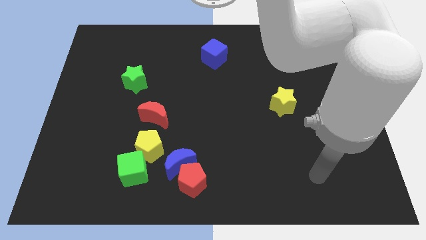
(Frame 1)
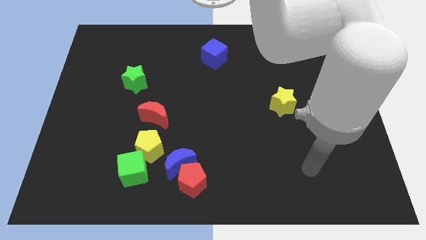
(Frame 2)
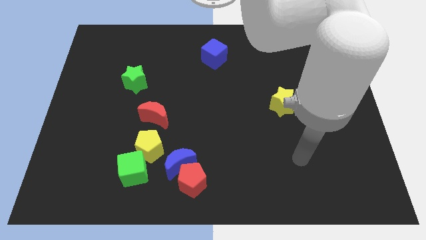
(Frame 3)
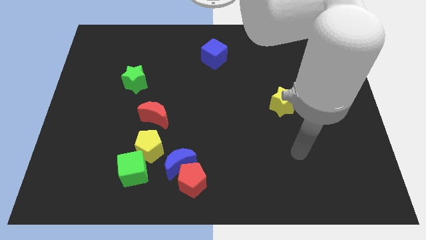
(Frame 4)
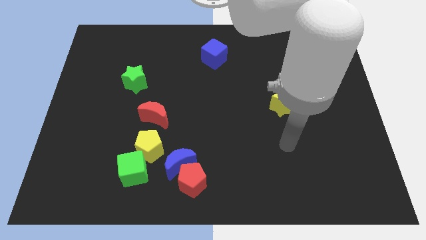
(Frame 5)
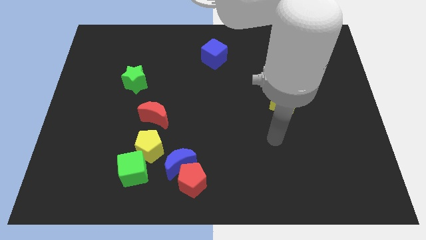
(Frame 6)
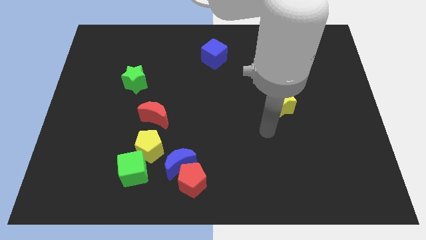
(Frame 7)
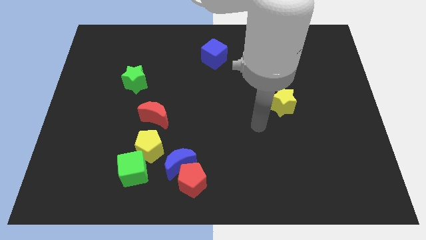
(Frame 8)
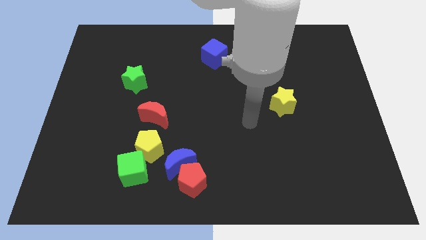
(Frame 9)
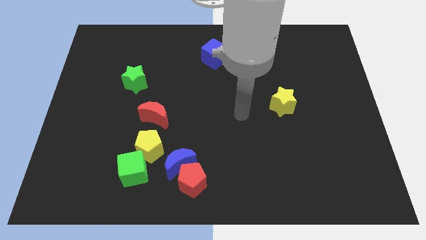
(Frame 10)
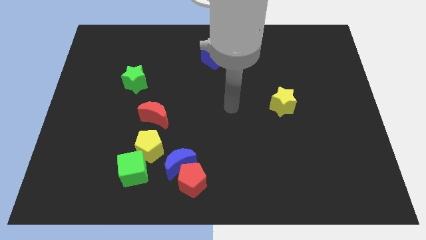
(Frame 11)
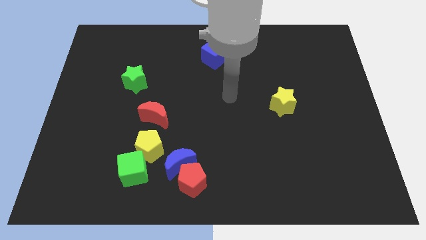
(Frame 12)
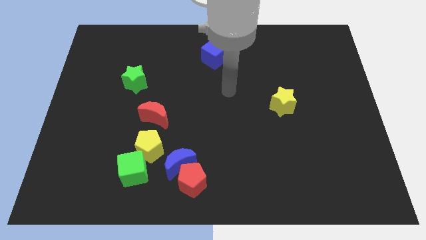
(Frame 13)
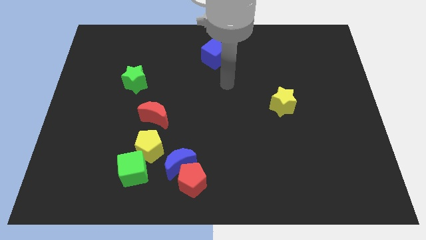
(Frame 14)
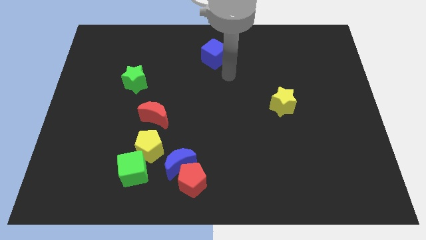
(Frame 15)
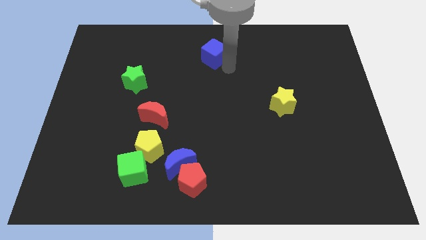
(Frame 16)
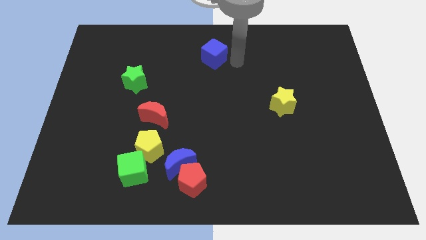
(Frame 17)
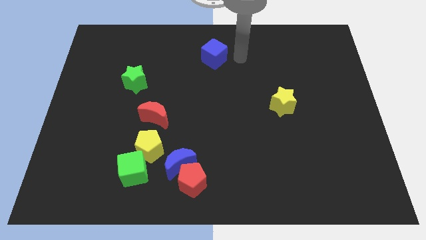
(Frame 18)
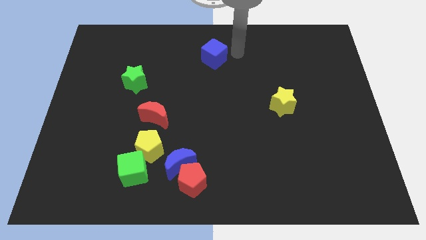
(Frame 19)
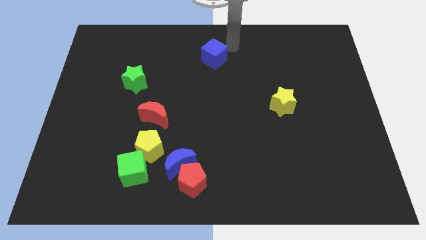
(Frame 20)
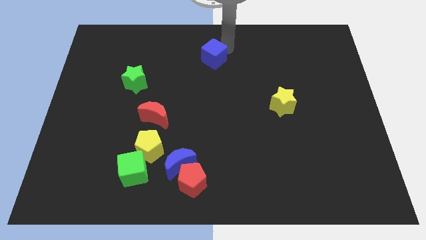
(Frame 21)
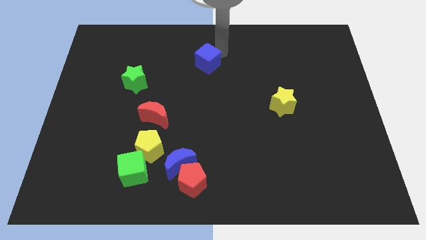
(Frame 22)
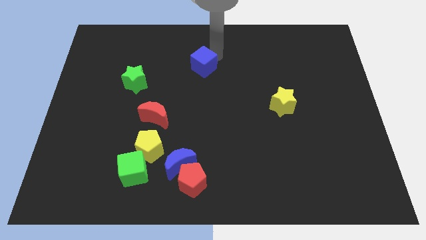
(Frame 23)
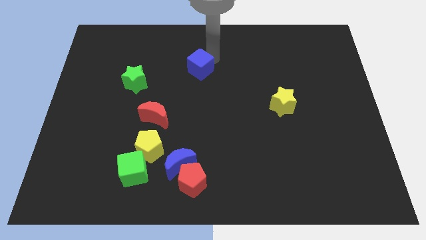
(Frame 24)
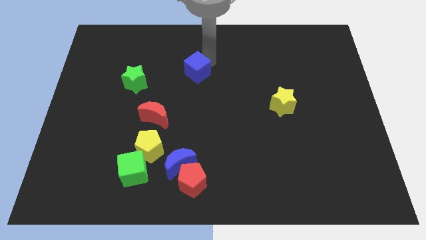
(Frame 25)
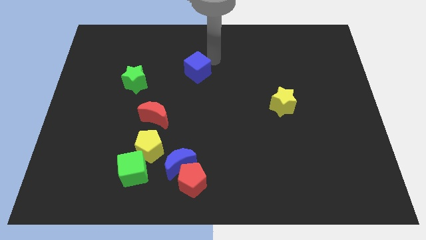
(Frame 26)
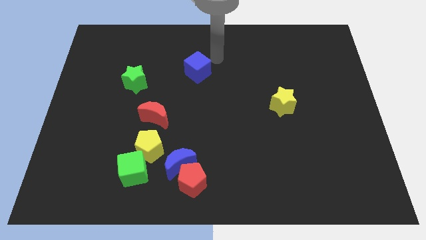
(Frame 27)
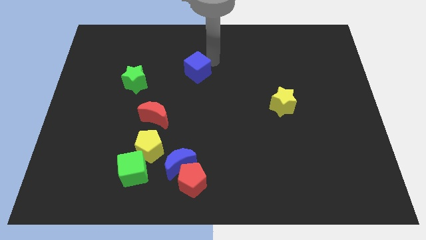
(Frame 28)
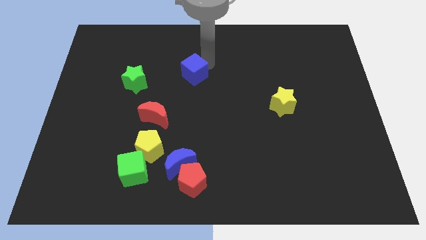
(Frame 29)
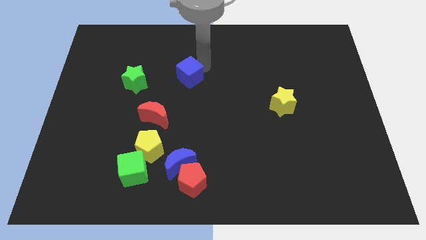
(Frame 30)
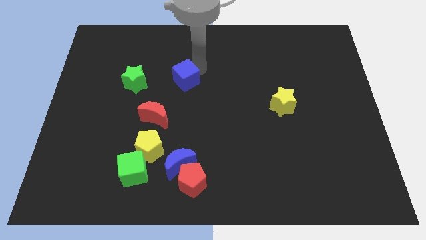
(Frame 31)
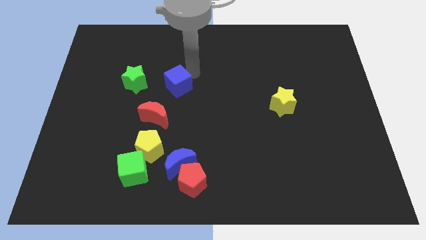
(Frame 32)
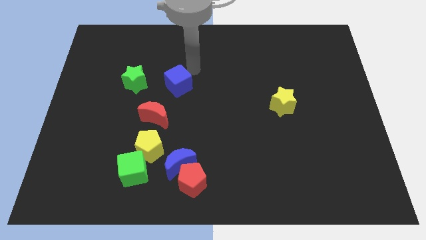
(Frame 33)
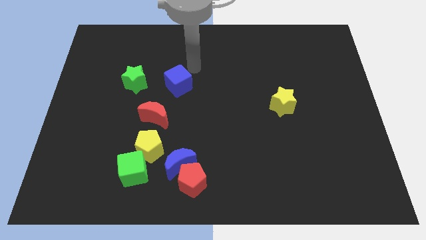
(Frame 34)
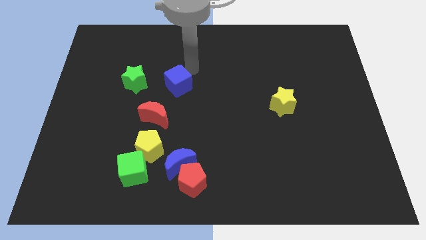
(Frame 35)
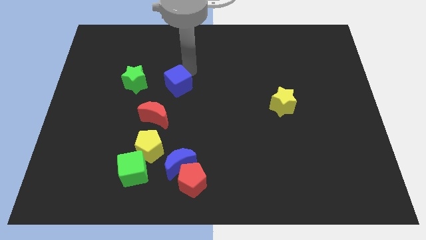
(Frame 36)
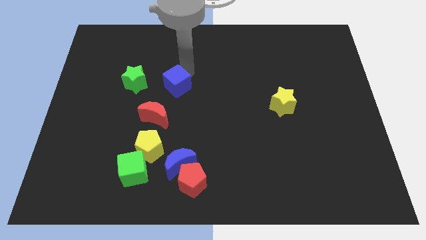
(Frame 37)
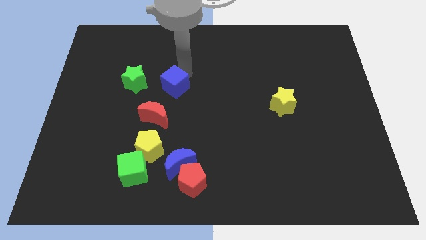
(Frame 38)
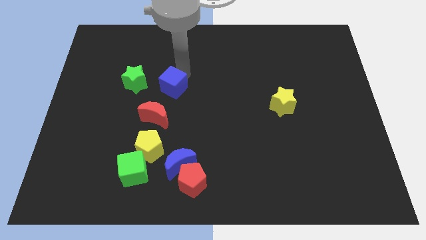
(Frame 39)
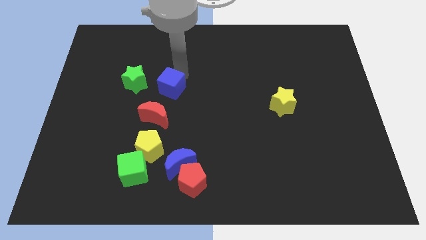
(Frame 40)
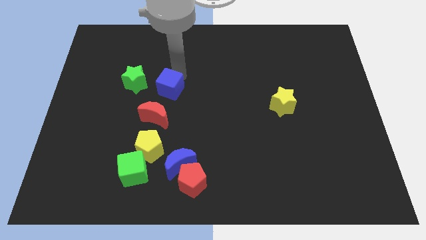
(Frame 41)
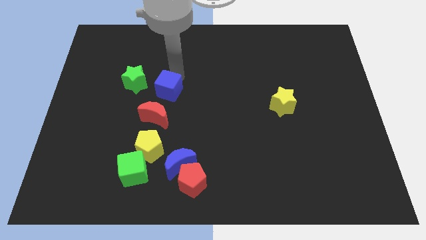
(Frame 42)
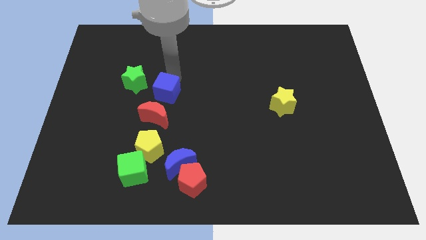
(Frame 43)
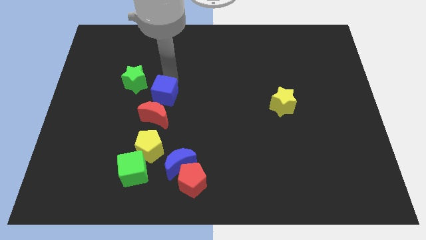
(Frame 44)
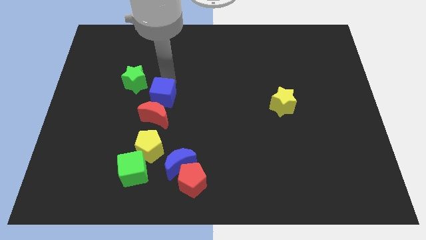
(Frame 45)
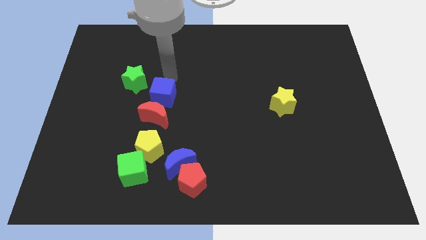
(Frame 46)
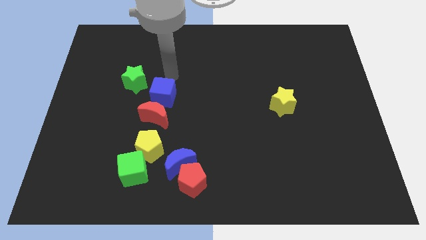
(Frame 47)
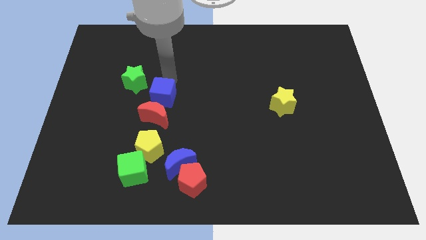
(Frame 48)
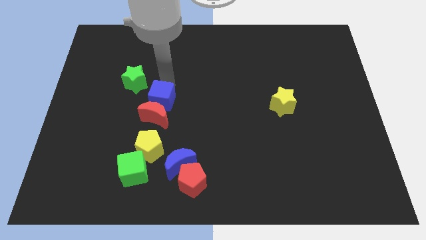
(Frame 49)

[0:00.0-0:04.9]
move the blue cube next to the red moon

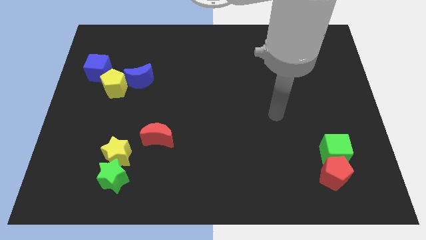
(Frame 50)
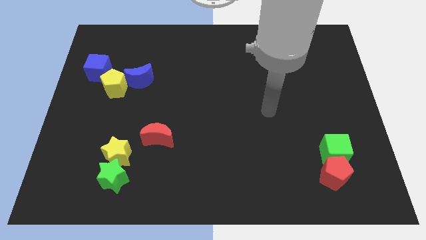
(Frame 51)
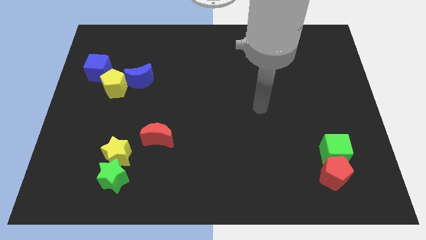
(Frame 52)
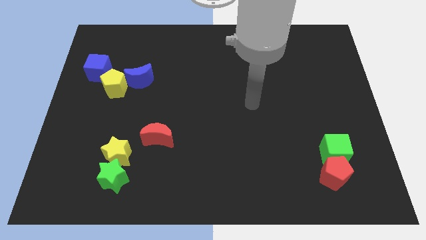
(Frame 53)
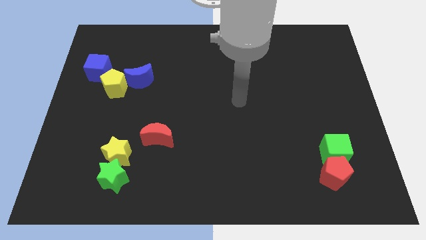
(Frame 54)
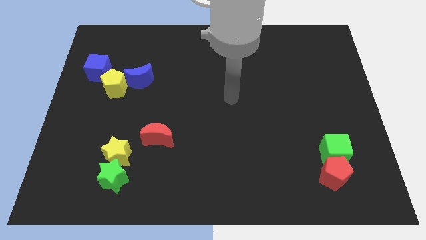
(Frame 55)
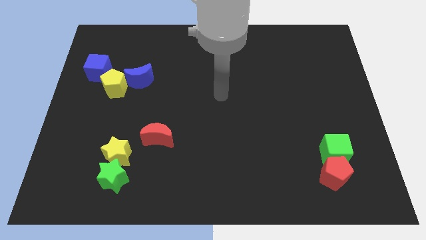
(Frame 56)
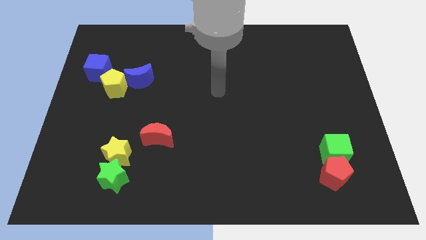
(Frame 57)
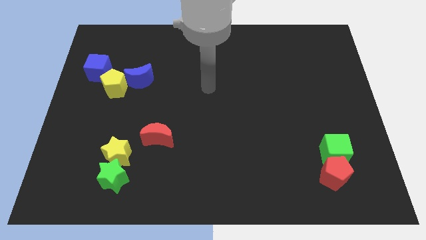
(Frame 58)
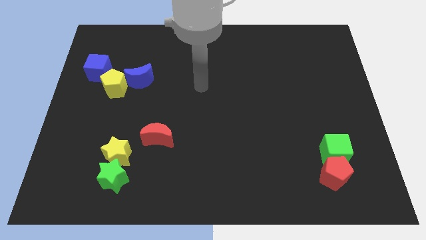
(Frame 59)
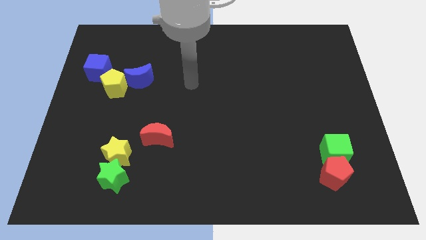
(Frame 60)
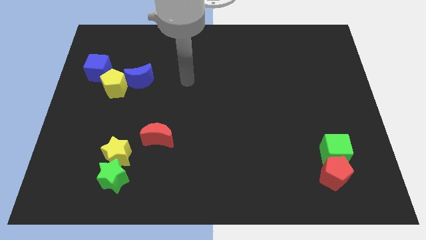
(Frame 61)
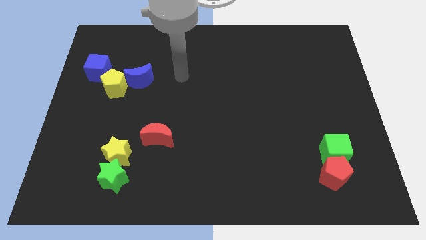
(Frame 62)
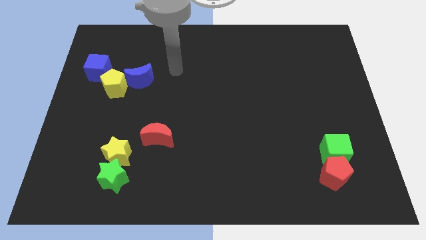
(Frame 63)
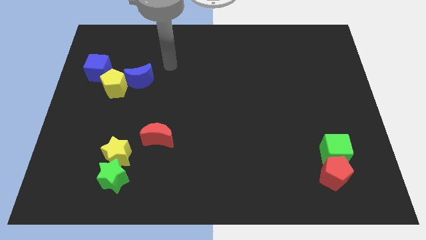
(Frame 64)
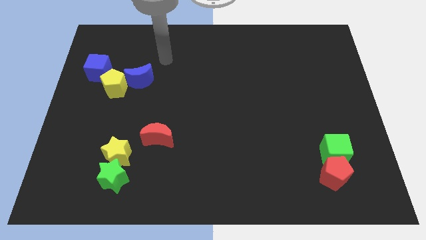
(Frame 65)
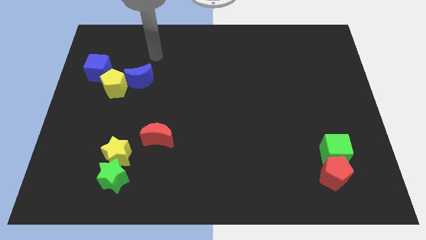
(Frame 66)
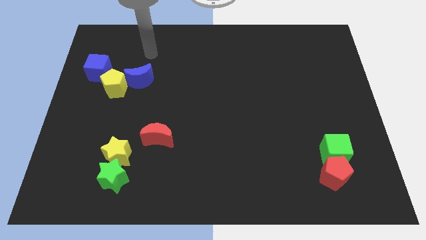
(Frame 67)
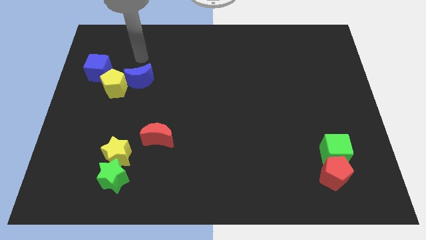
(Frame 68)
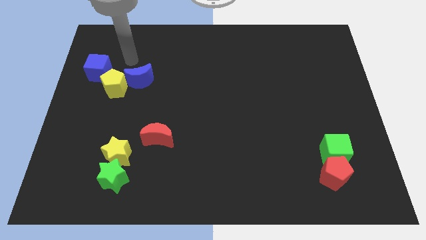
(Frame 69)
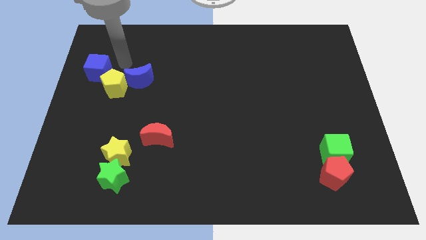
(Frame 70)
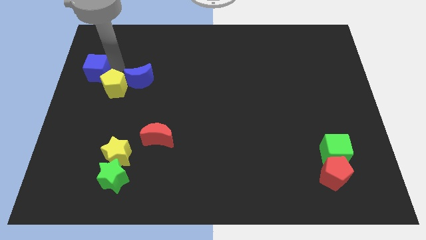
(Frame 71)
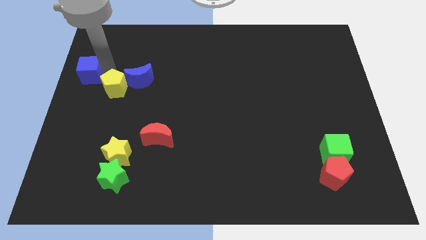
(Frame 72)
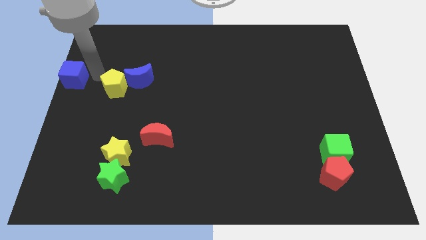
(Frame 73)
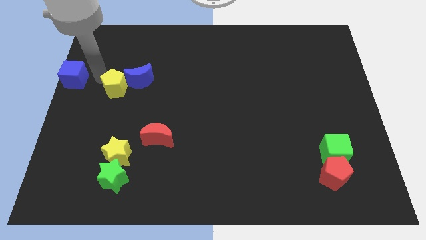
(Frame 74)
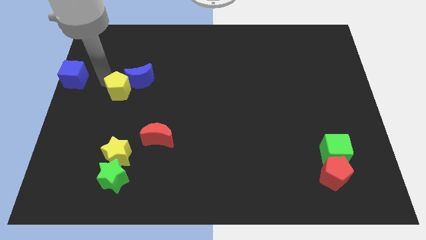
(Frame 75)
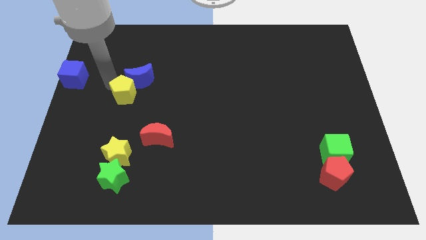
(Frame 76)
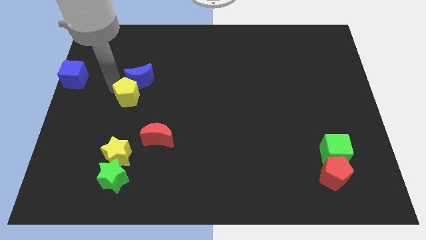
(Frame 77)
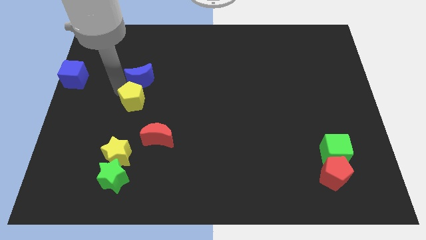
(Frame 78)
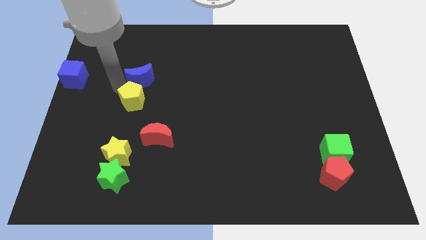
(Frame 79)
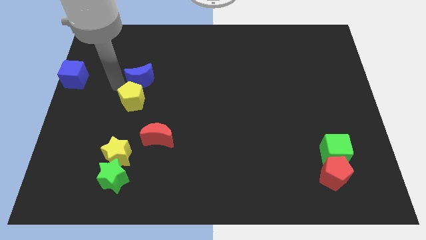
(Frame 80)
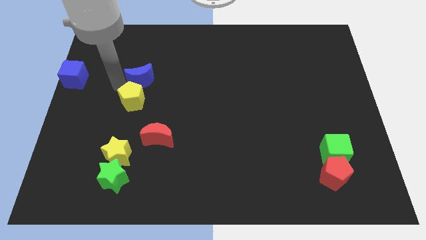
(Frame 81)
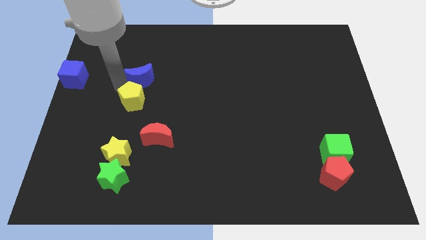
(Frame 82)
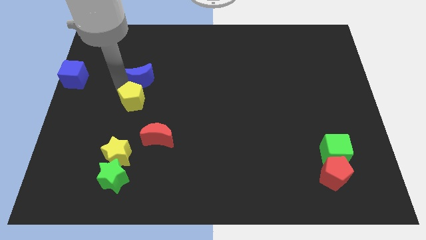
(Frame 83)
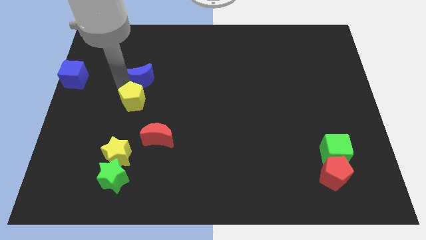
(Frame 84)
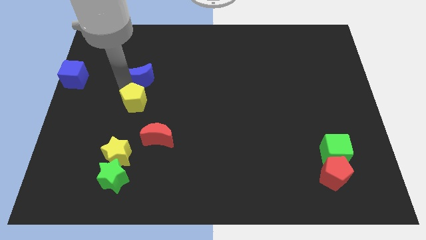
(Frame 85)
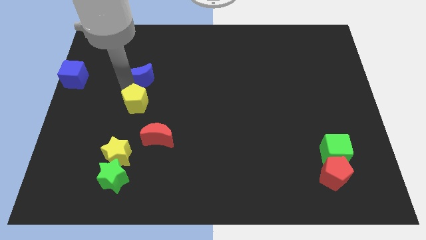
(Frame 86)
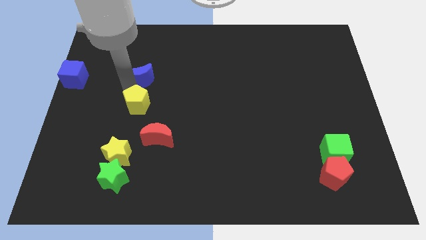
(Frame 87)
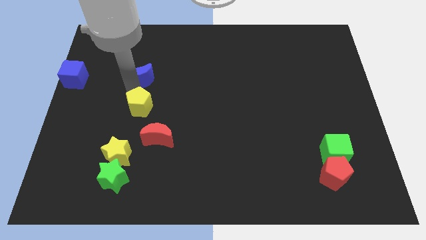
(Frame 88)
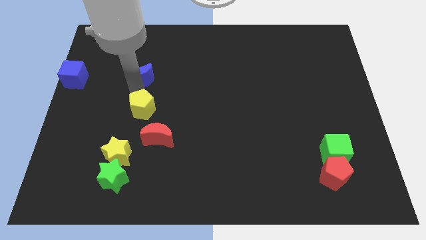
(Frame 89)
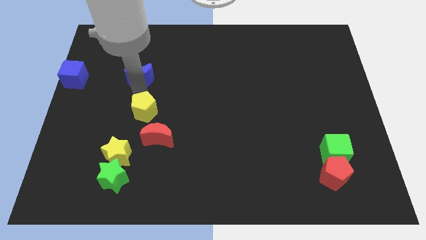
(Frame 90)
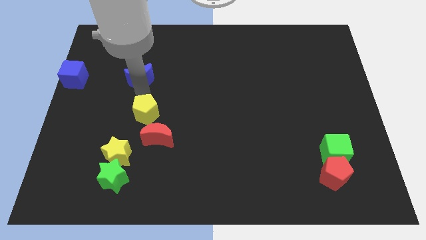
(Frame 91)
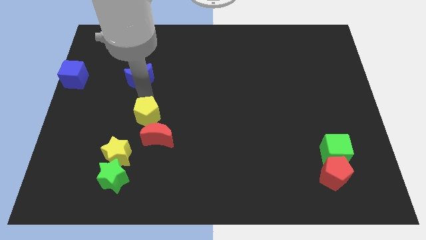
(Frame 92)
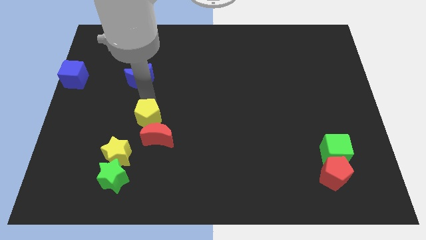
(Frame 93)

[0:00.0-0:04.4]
push the yellow pentagon to the red moon
